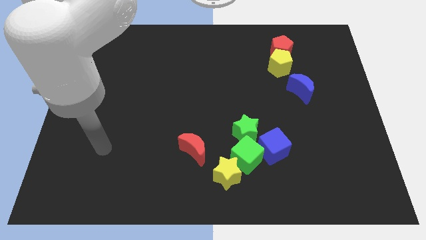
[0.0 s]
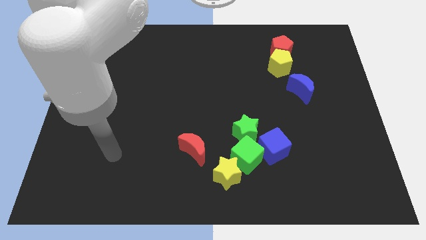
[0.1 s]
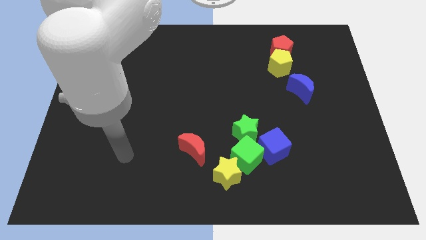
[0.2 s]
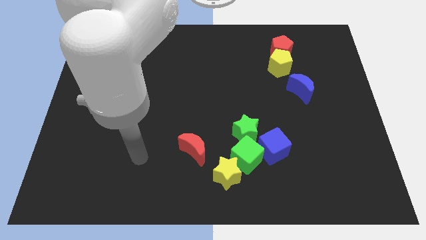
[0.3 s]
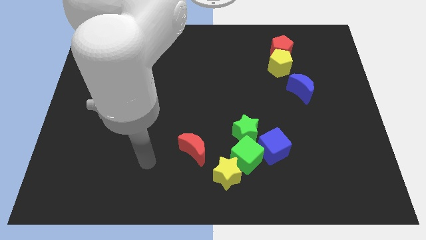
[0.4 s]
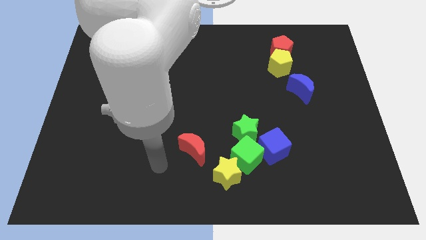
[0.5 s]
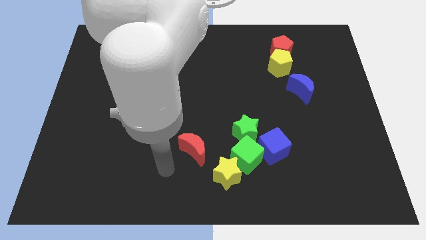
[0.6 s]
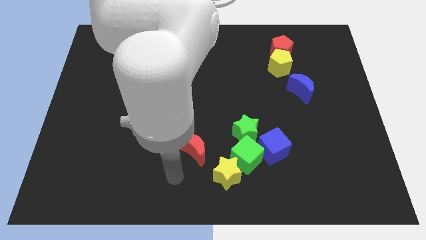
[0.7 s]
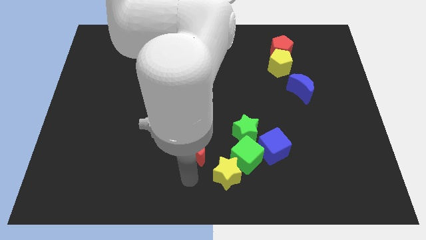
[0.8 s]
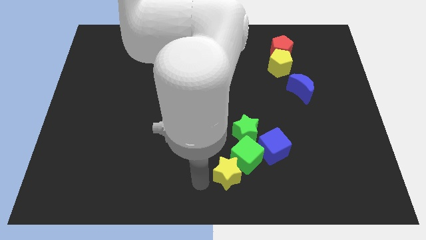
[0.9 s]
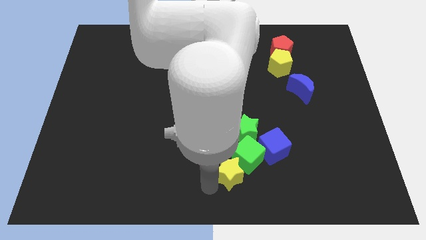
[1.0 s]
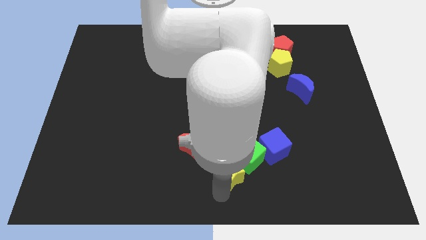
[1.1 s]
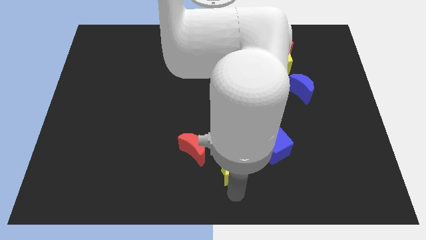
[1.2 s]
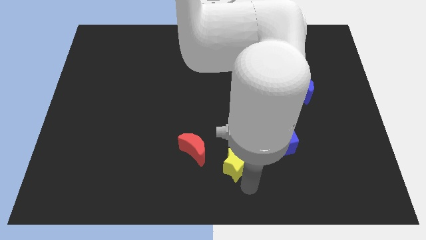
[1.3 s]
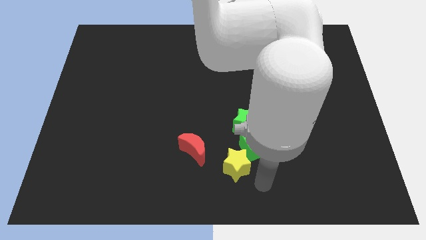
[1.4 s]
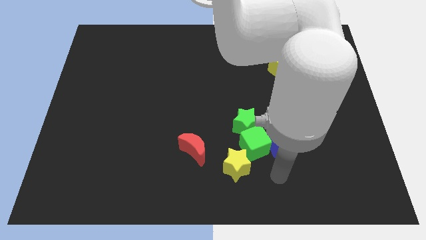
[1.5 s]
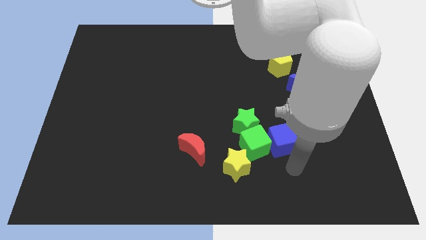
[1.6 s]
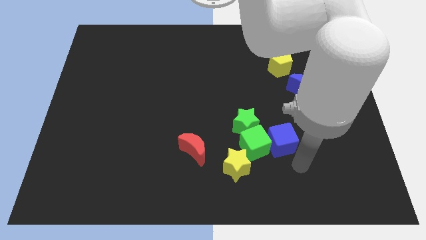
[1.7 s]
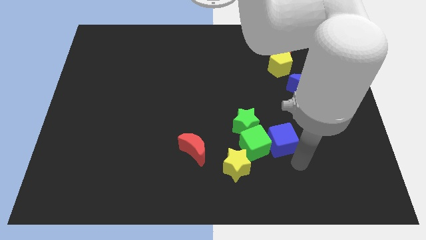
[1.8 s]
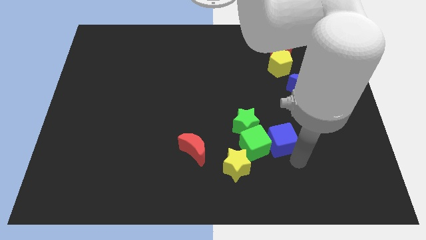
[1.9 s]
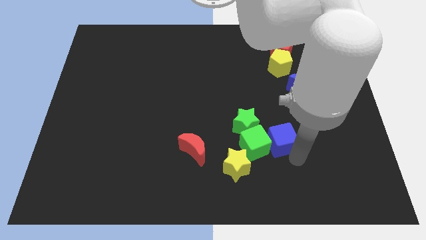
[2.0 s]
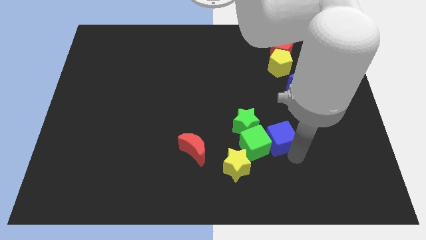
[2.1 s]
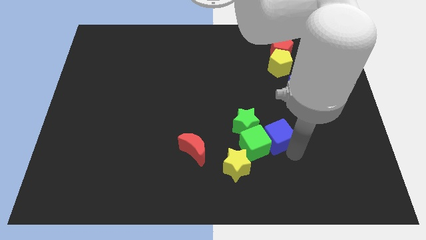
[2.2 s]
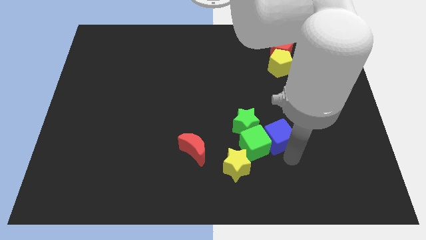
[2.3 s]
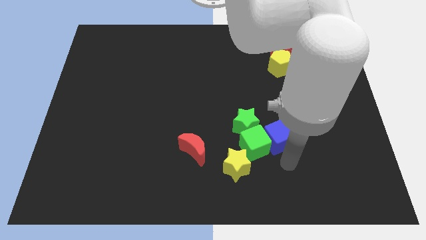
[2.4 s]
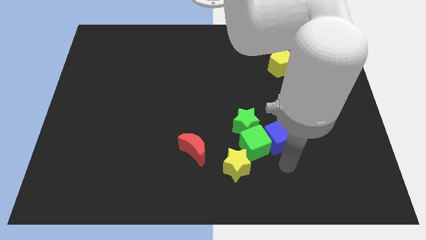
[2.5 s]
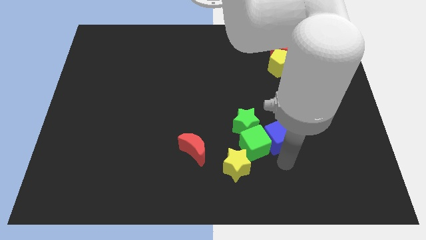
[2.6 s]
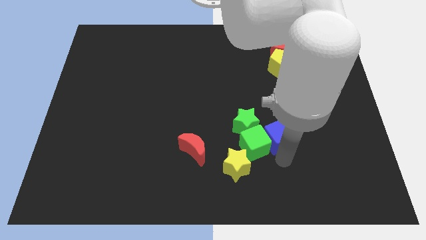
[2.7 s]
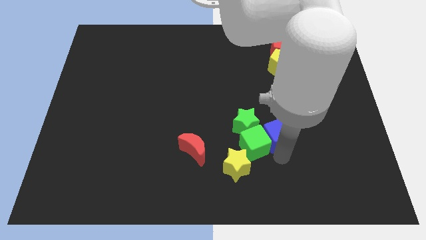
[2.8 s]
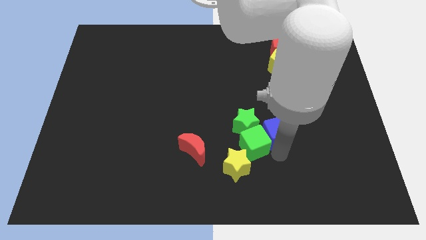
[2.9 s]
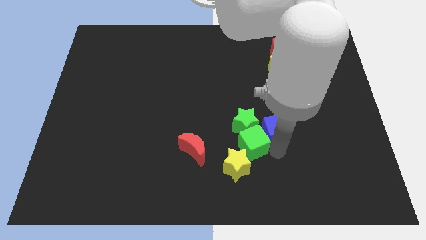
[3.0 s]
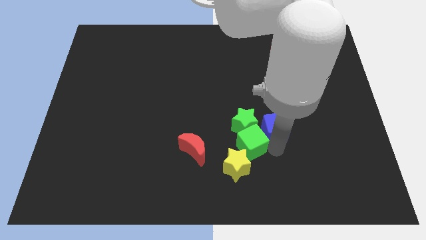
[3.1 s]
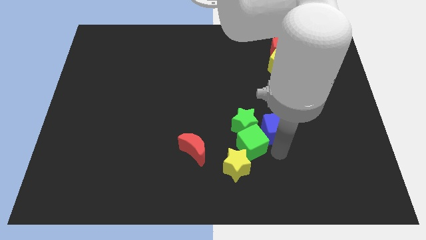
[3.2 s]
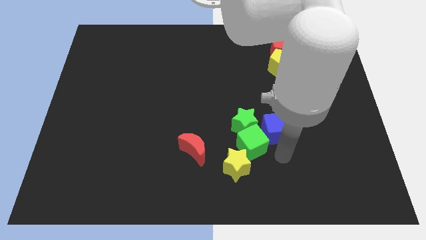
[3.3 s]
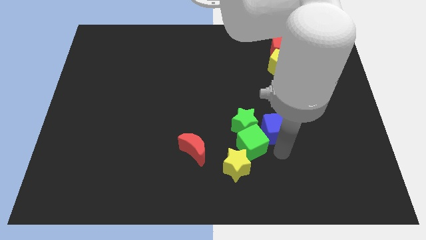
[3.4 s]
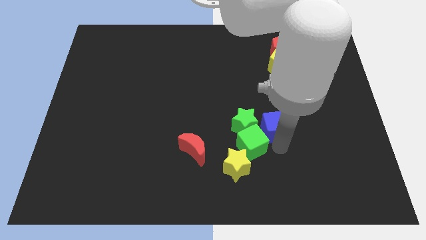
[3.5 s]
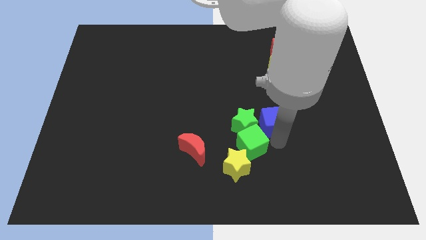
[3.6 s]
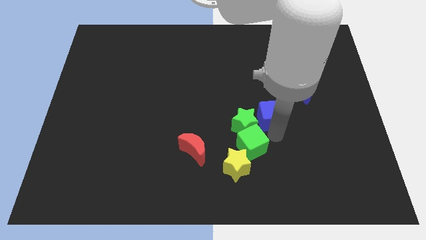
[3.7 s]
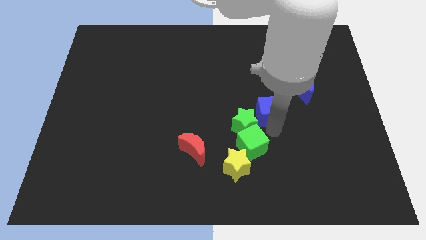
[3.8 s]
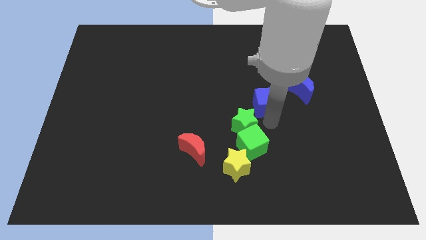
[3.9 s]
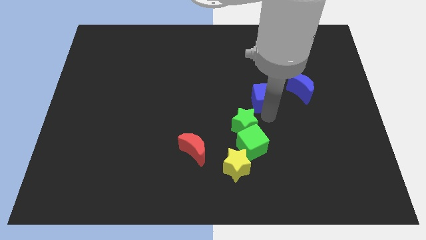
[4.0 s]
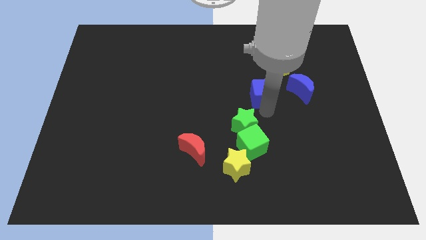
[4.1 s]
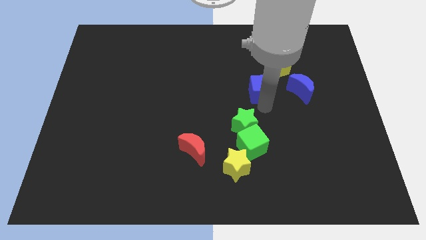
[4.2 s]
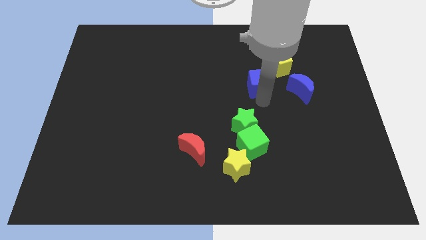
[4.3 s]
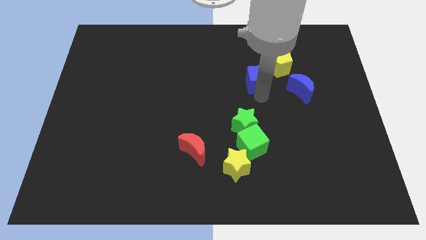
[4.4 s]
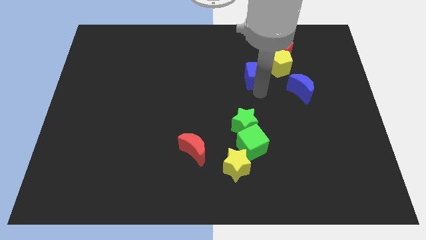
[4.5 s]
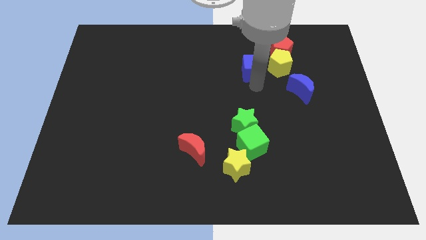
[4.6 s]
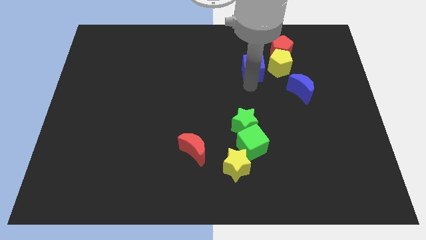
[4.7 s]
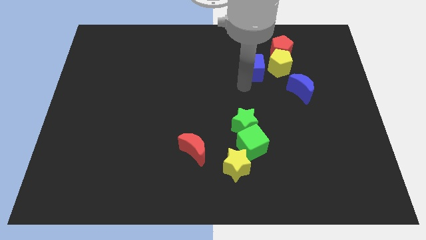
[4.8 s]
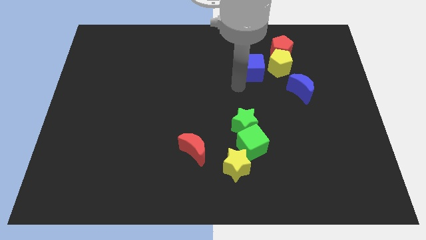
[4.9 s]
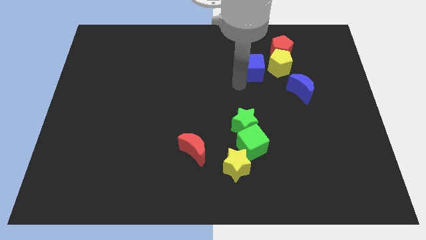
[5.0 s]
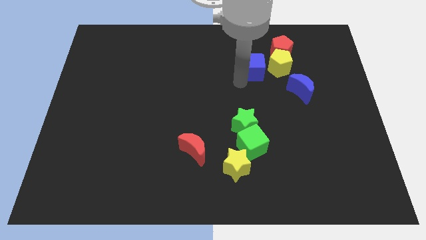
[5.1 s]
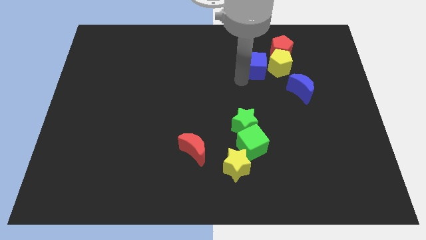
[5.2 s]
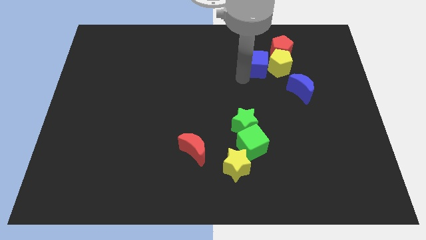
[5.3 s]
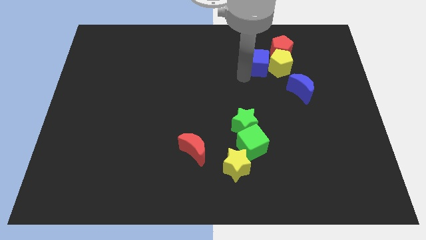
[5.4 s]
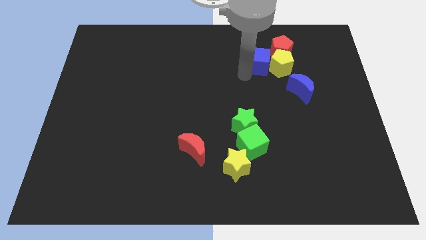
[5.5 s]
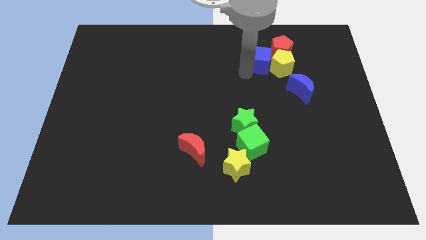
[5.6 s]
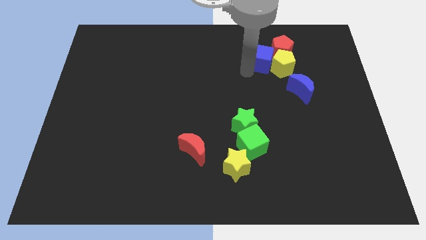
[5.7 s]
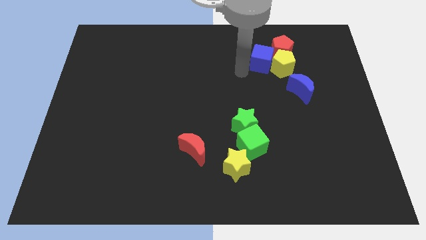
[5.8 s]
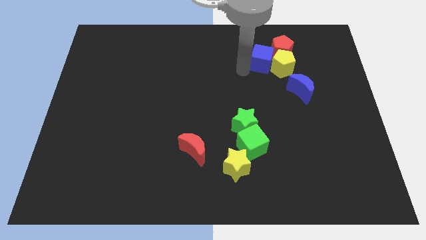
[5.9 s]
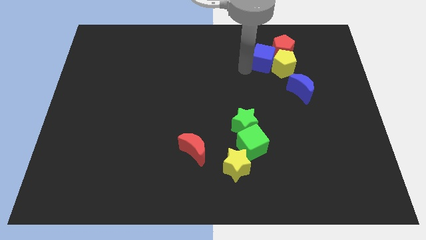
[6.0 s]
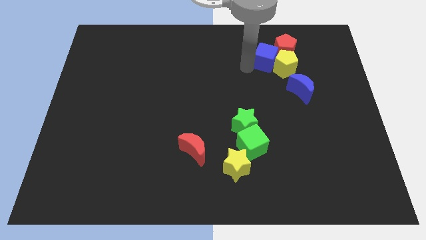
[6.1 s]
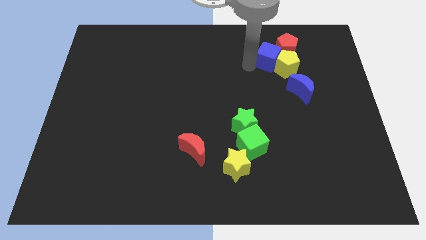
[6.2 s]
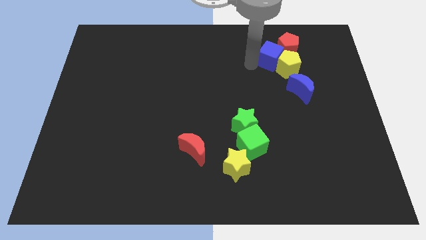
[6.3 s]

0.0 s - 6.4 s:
push the blue cube close to the red pentagon

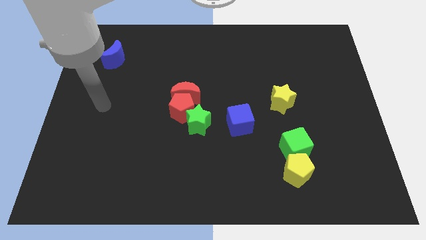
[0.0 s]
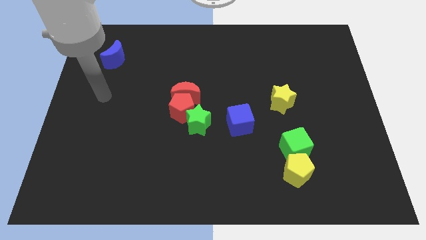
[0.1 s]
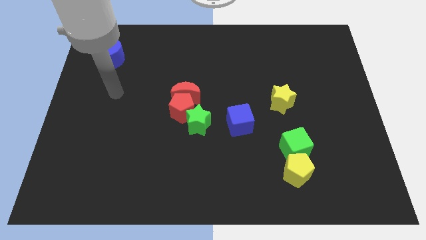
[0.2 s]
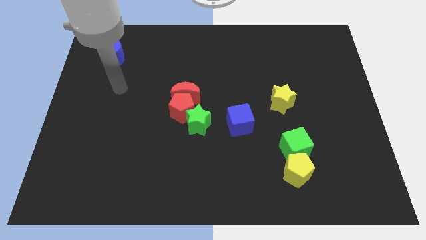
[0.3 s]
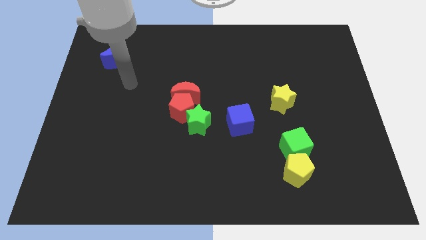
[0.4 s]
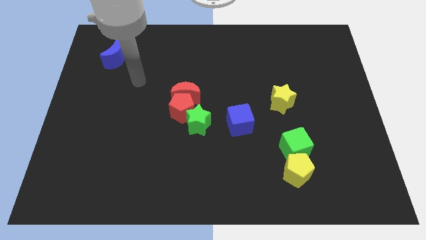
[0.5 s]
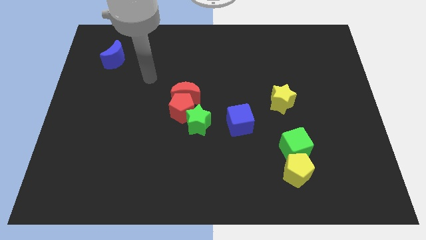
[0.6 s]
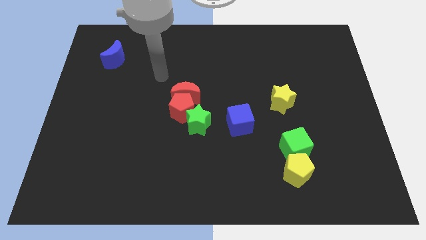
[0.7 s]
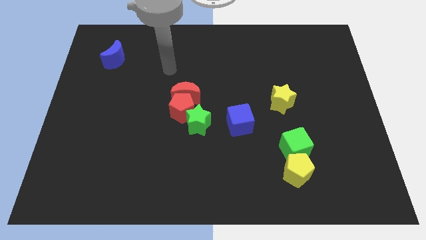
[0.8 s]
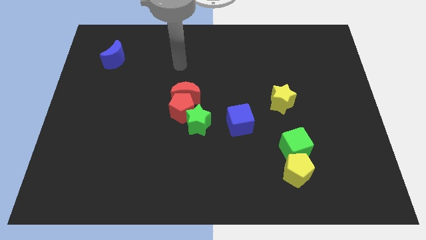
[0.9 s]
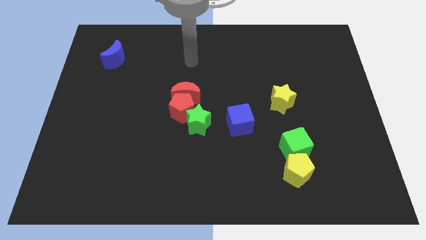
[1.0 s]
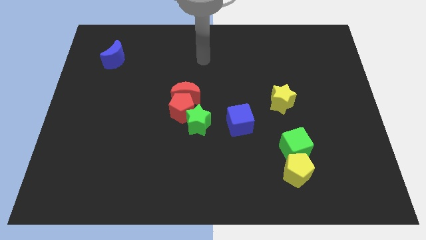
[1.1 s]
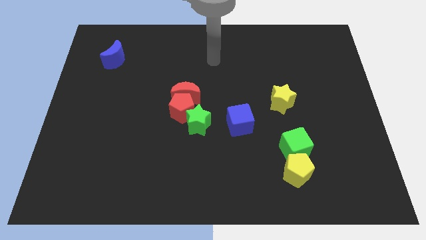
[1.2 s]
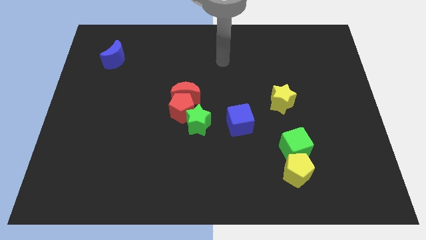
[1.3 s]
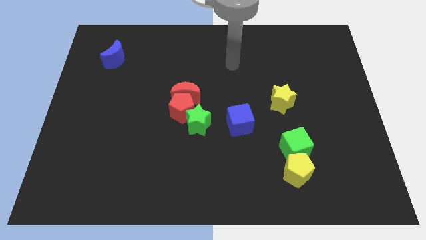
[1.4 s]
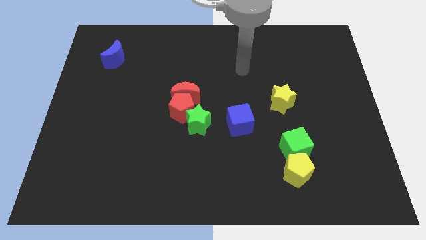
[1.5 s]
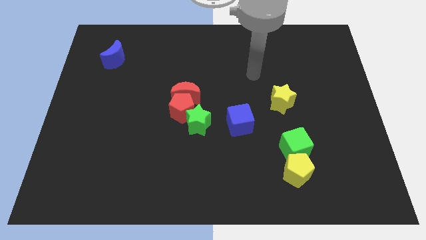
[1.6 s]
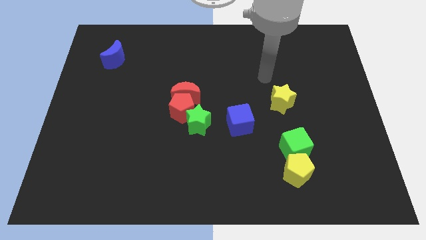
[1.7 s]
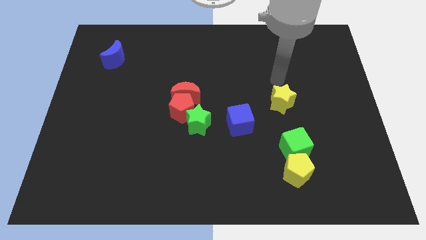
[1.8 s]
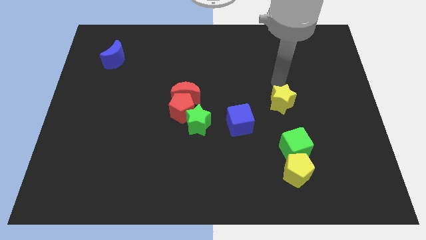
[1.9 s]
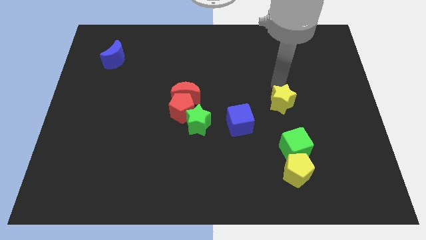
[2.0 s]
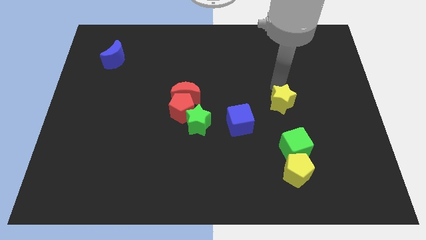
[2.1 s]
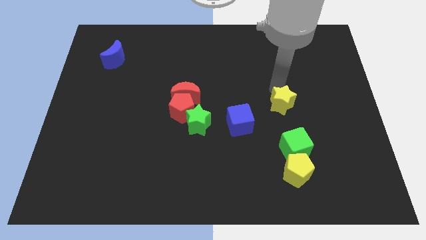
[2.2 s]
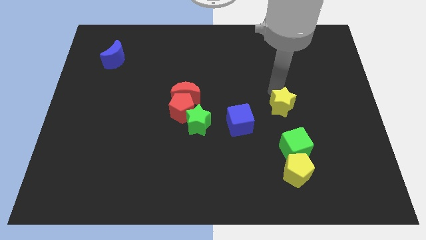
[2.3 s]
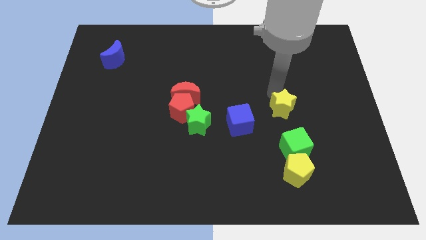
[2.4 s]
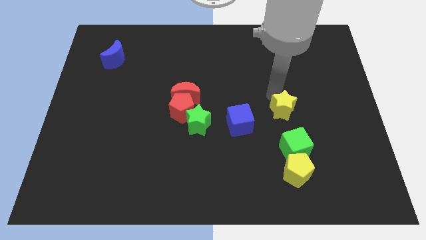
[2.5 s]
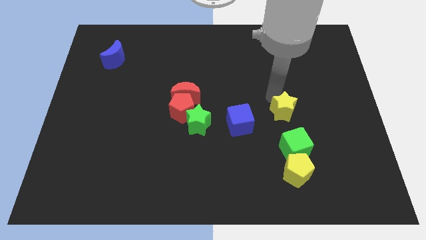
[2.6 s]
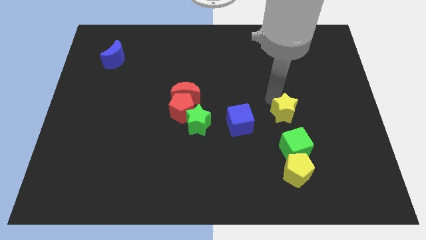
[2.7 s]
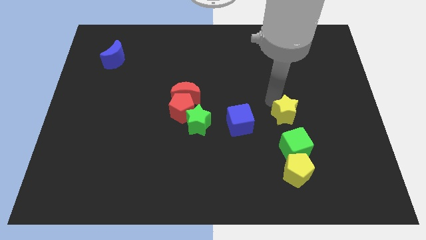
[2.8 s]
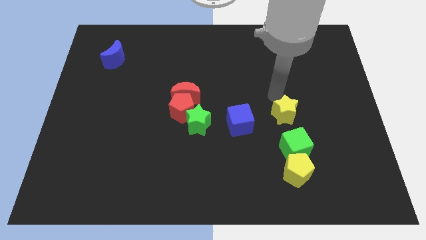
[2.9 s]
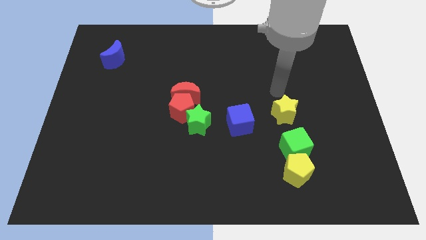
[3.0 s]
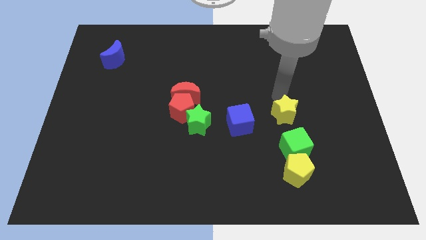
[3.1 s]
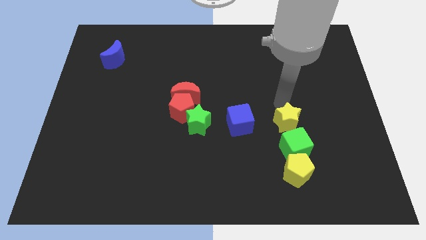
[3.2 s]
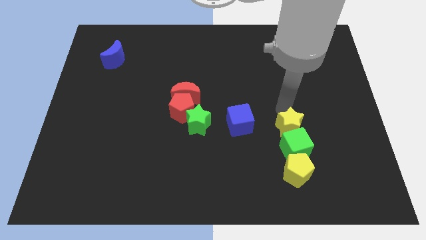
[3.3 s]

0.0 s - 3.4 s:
put the yellow star towards the green cube
